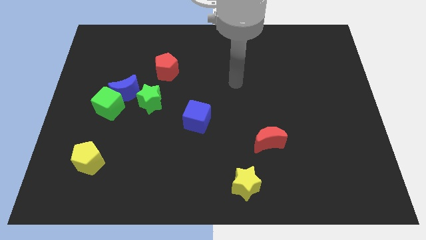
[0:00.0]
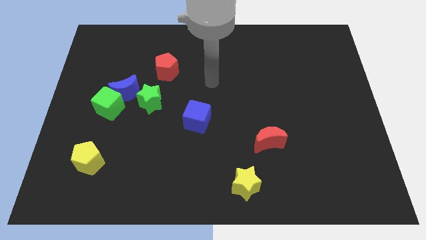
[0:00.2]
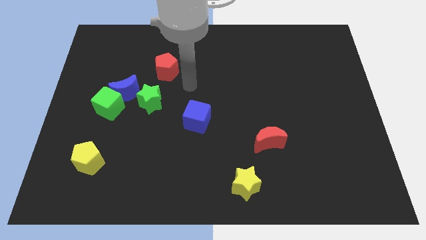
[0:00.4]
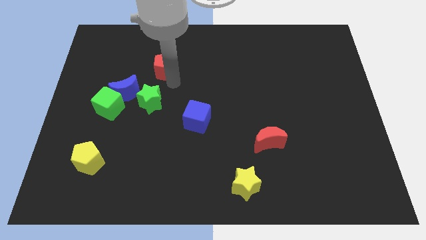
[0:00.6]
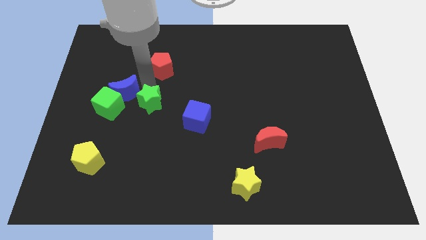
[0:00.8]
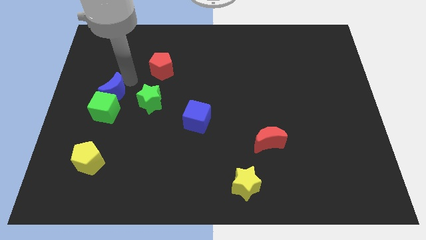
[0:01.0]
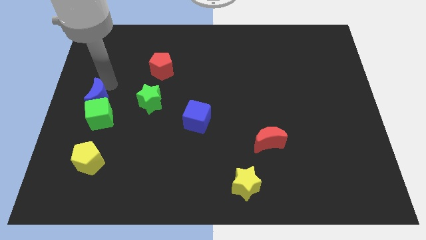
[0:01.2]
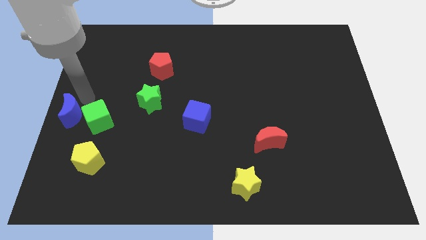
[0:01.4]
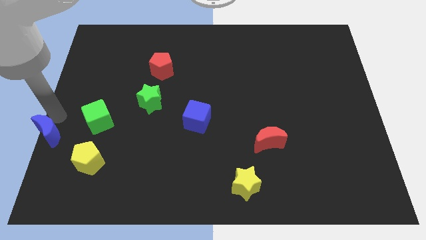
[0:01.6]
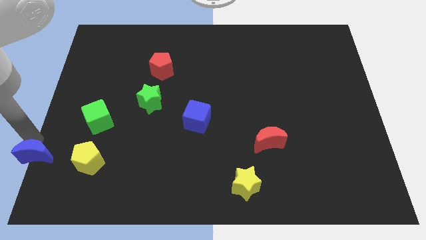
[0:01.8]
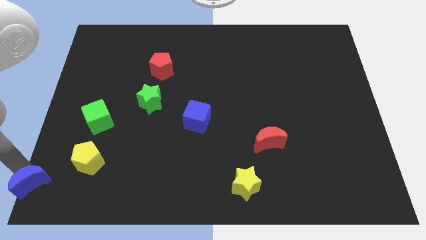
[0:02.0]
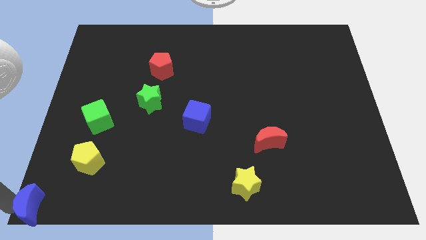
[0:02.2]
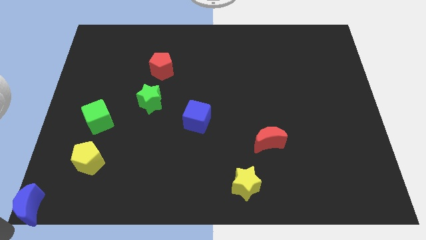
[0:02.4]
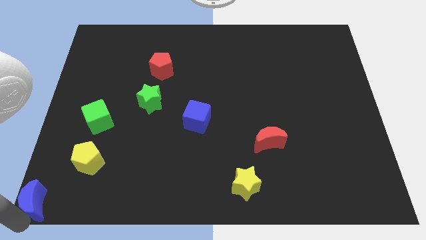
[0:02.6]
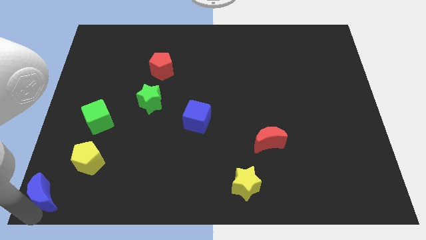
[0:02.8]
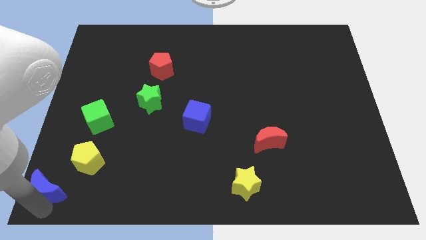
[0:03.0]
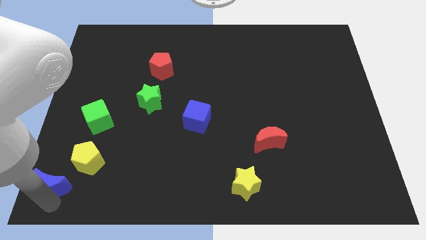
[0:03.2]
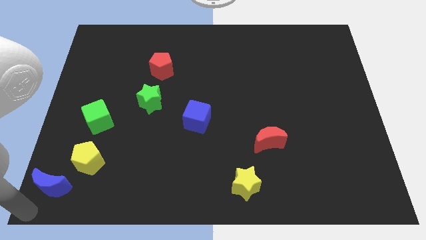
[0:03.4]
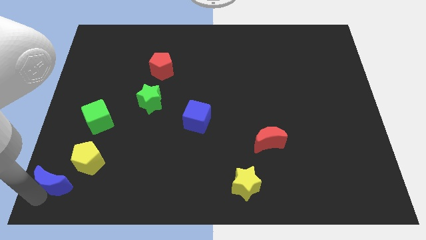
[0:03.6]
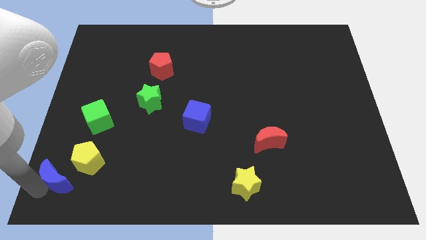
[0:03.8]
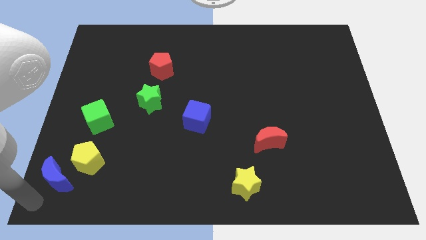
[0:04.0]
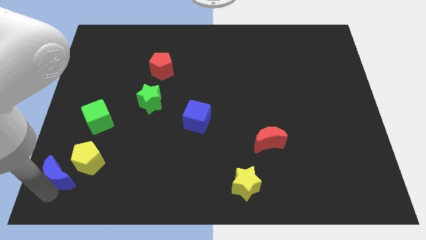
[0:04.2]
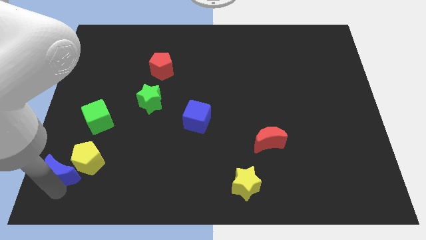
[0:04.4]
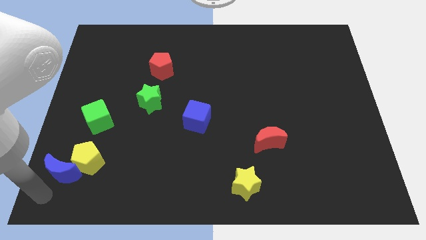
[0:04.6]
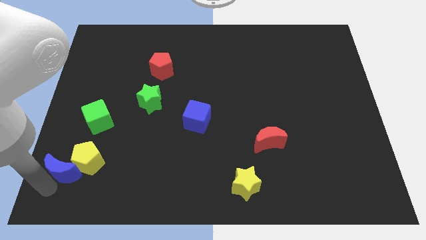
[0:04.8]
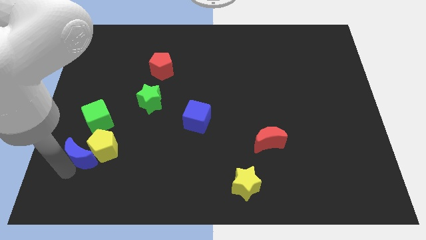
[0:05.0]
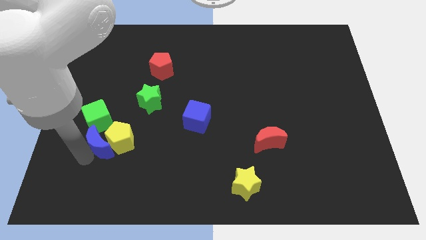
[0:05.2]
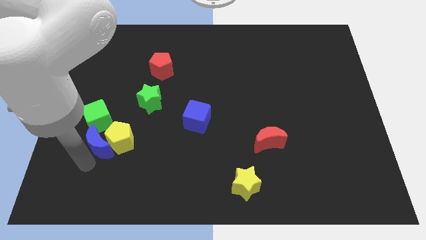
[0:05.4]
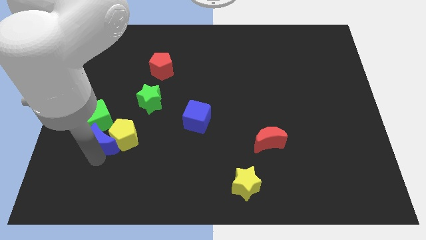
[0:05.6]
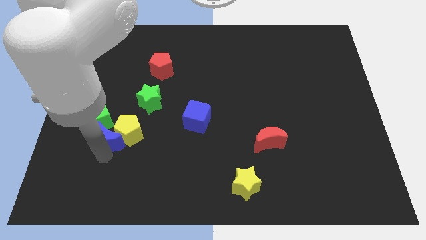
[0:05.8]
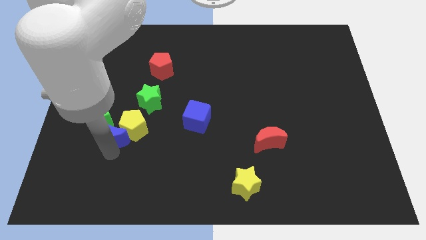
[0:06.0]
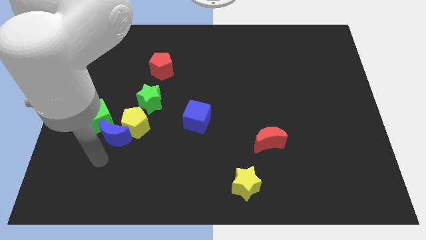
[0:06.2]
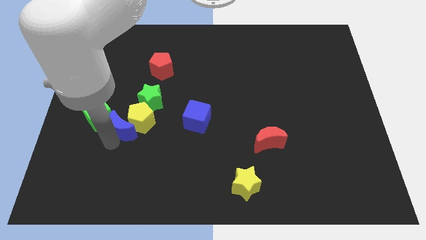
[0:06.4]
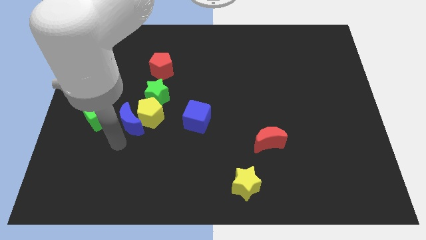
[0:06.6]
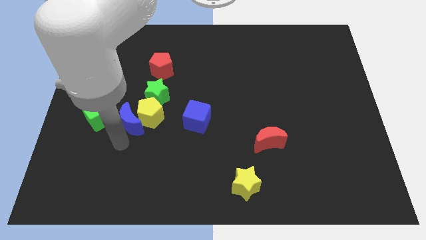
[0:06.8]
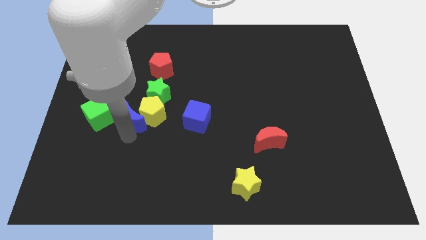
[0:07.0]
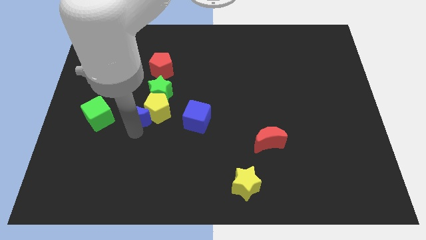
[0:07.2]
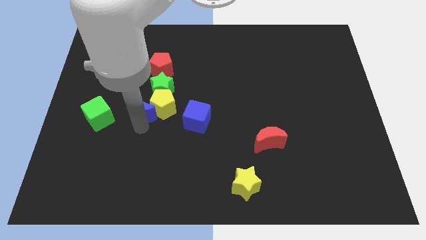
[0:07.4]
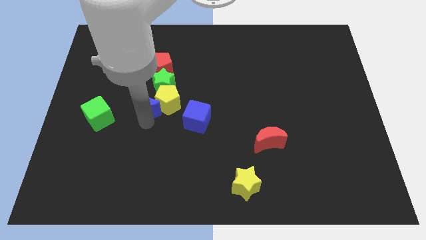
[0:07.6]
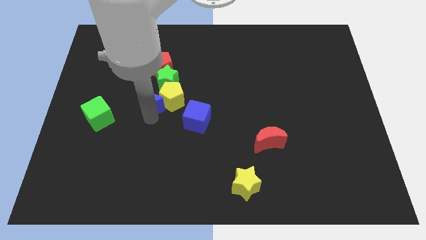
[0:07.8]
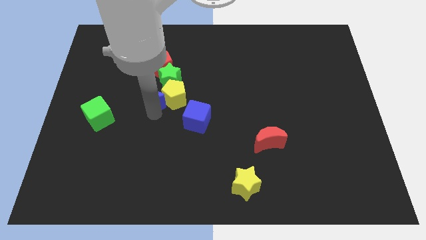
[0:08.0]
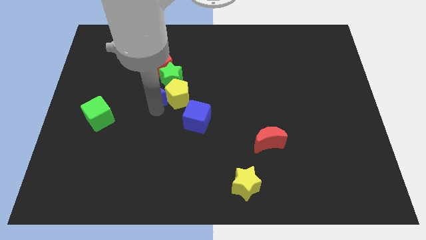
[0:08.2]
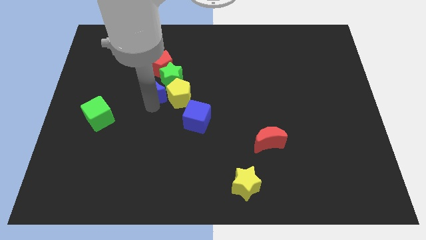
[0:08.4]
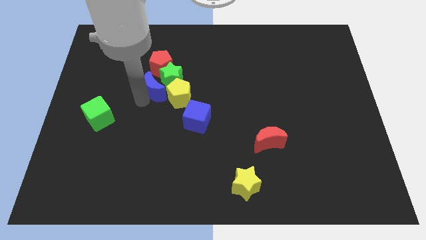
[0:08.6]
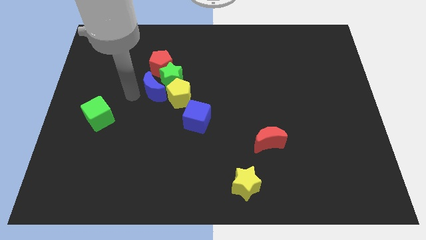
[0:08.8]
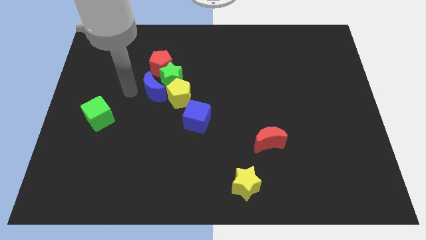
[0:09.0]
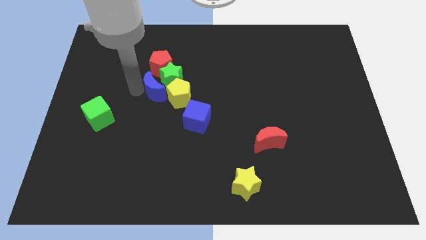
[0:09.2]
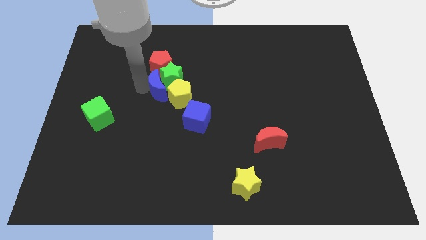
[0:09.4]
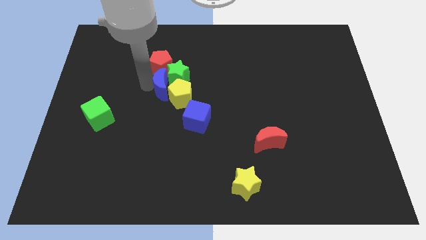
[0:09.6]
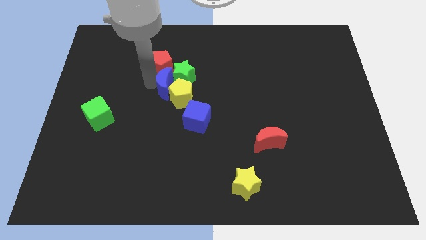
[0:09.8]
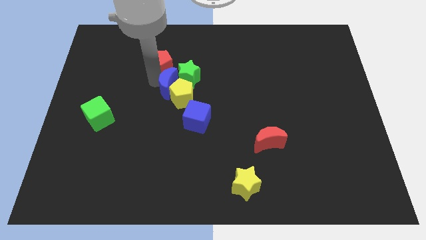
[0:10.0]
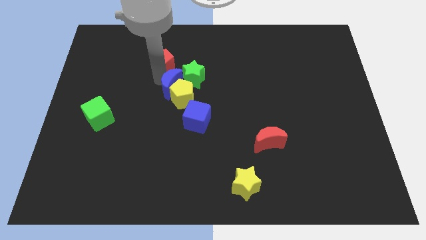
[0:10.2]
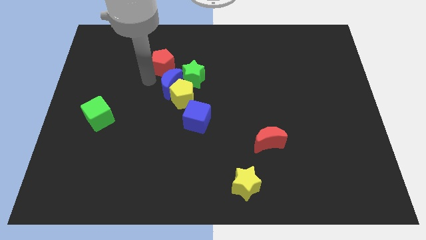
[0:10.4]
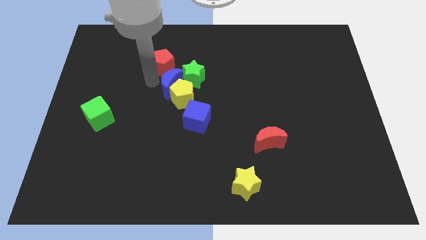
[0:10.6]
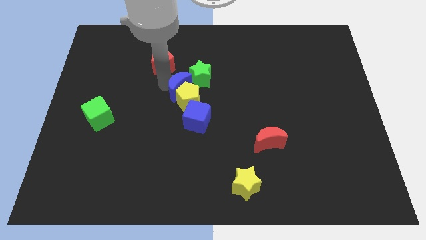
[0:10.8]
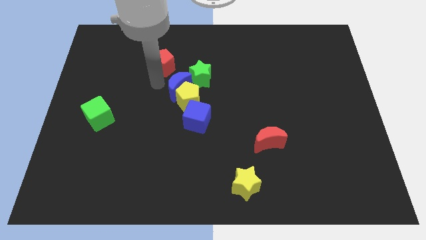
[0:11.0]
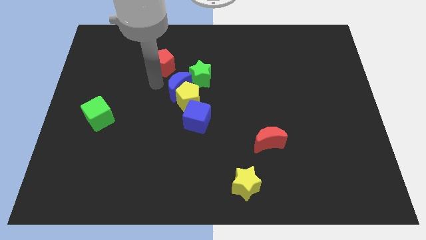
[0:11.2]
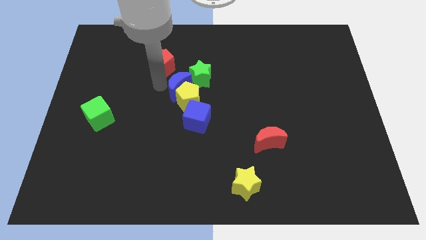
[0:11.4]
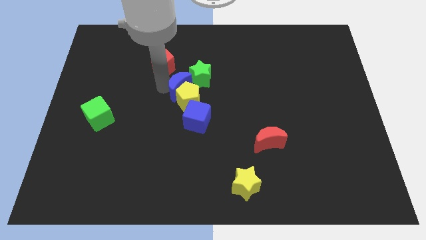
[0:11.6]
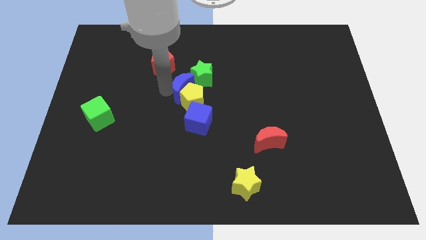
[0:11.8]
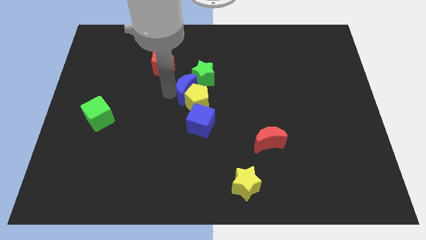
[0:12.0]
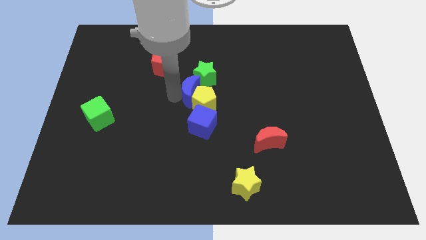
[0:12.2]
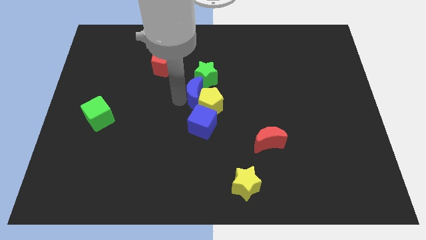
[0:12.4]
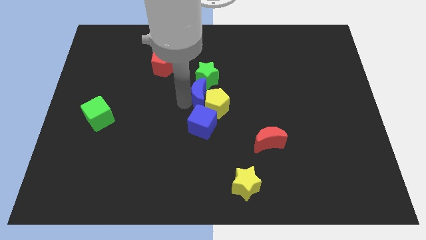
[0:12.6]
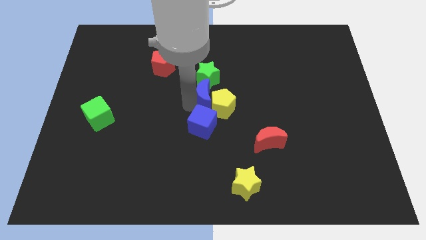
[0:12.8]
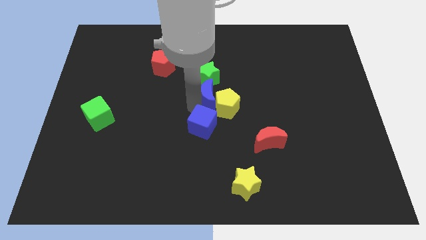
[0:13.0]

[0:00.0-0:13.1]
push the blue moon right

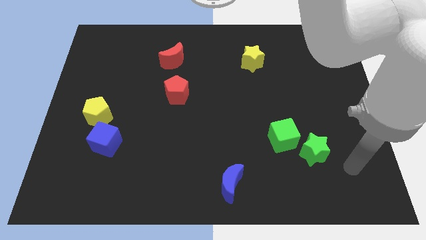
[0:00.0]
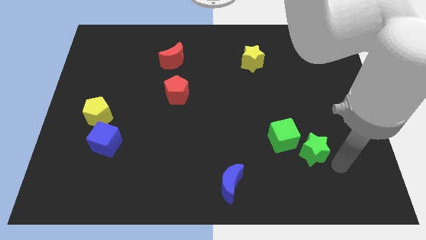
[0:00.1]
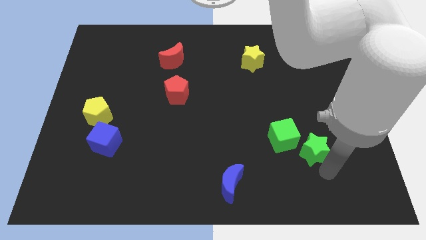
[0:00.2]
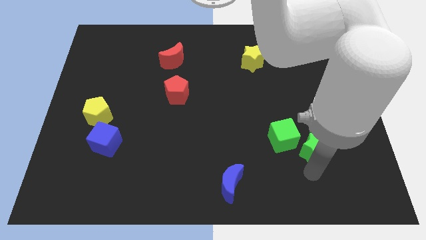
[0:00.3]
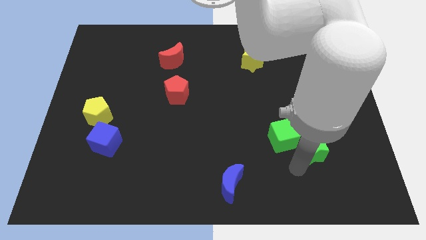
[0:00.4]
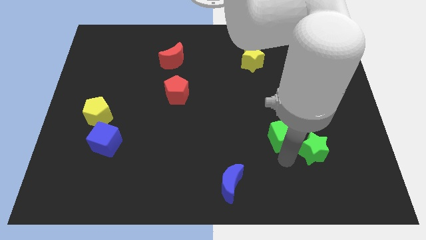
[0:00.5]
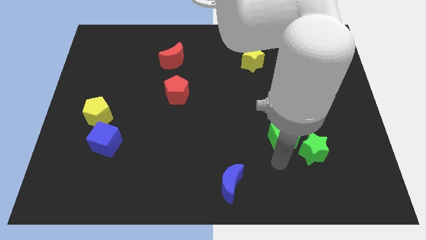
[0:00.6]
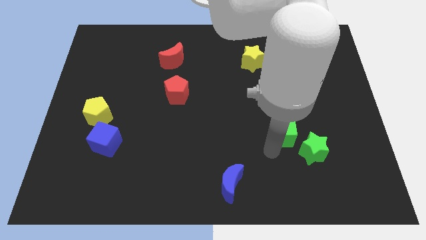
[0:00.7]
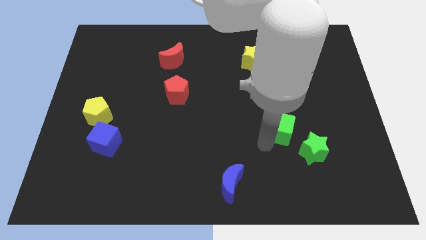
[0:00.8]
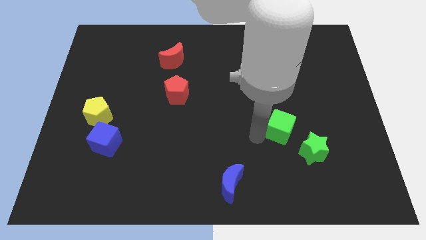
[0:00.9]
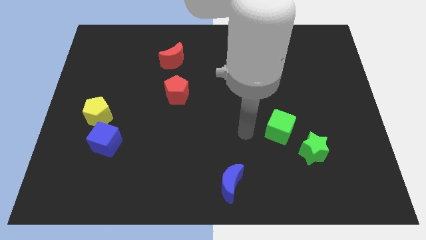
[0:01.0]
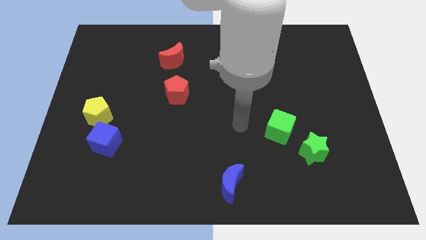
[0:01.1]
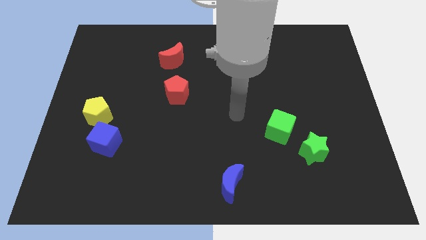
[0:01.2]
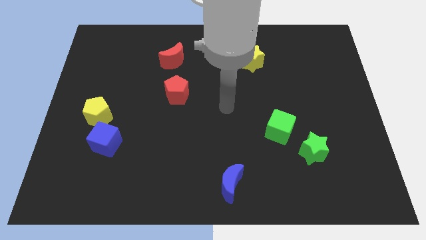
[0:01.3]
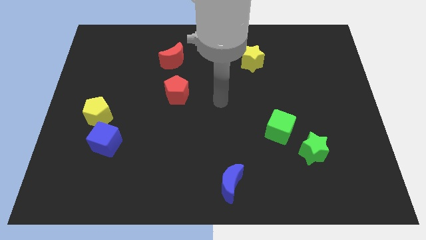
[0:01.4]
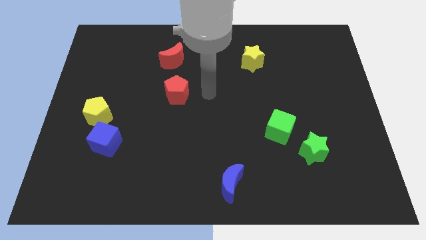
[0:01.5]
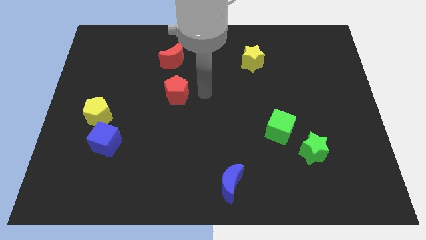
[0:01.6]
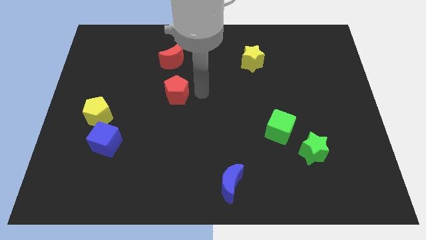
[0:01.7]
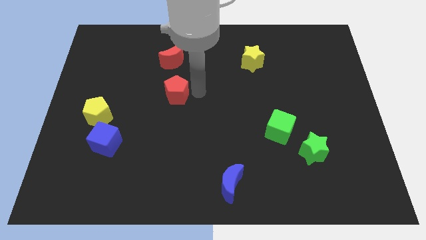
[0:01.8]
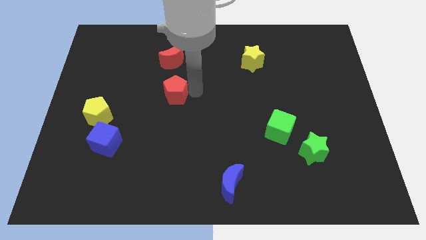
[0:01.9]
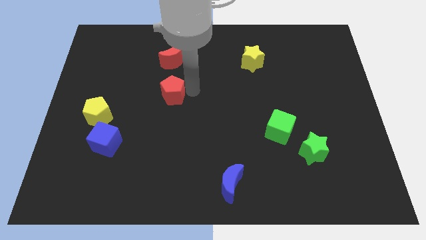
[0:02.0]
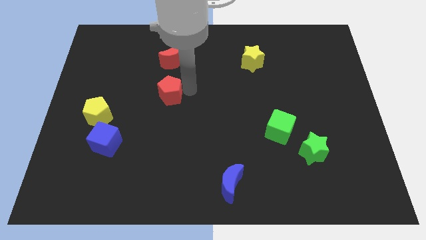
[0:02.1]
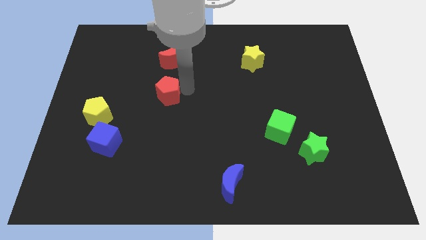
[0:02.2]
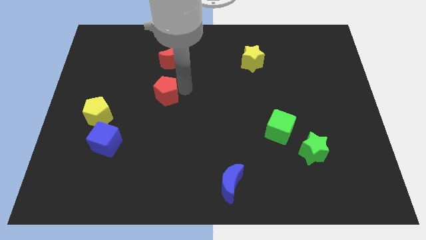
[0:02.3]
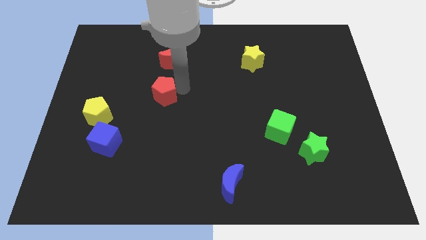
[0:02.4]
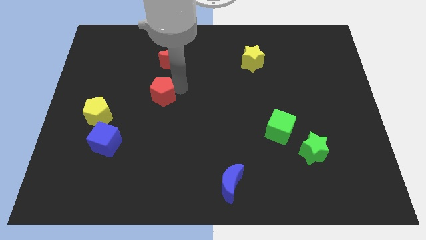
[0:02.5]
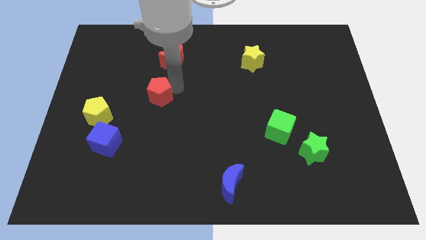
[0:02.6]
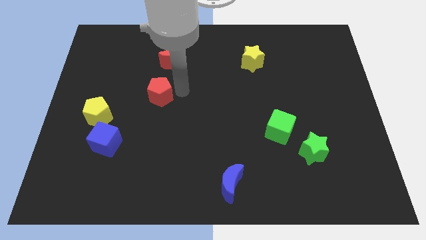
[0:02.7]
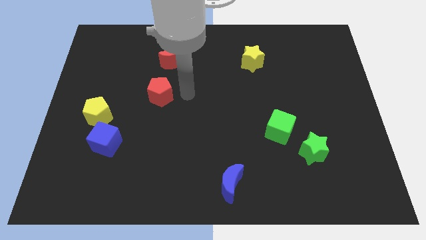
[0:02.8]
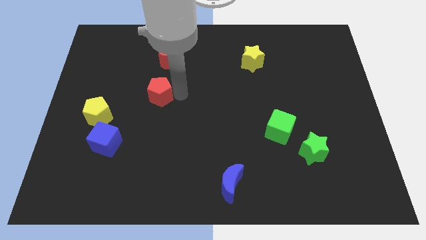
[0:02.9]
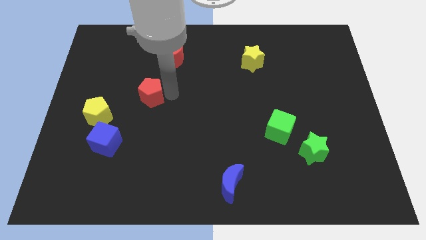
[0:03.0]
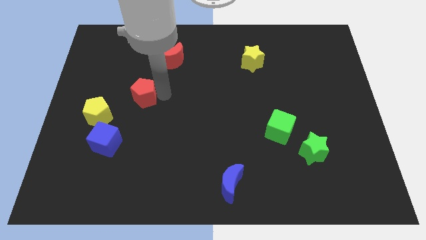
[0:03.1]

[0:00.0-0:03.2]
slightly slide the red pentagon to the left
